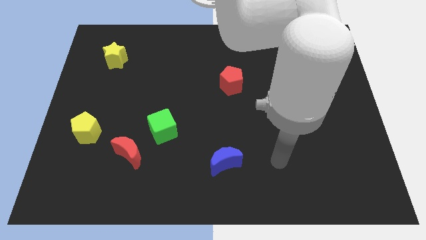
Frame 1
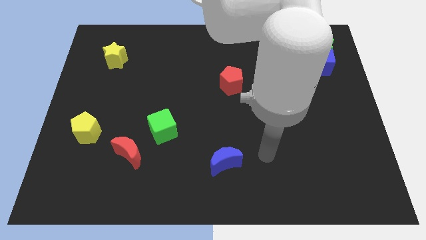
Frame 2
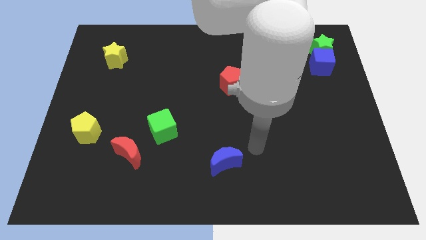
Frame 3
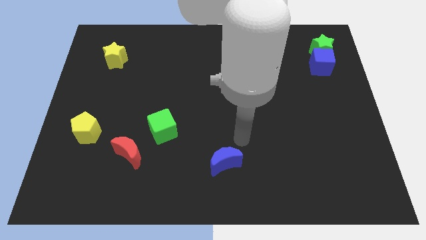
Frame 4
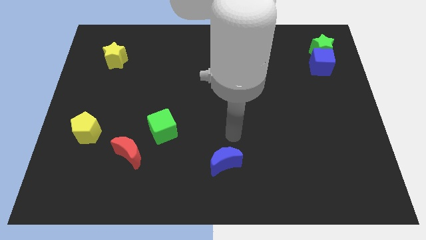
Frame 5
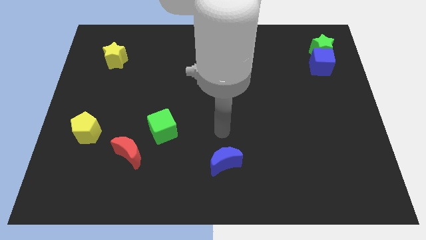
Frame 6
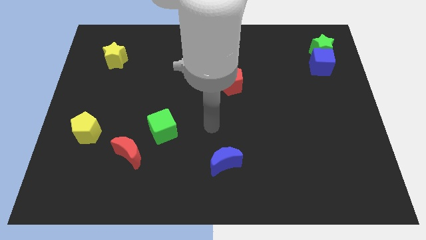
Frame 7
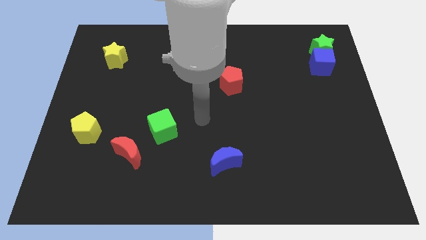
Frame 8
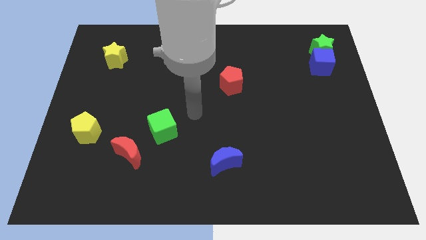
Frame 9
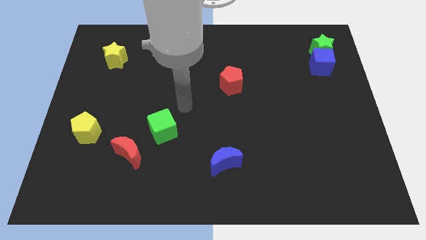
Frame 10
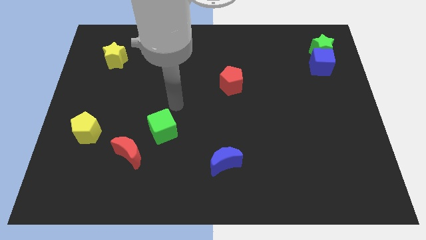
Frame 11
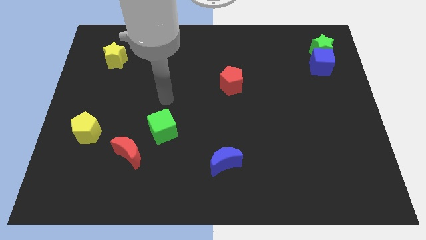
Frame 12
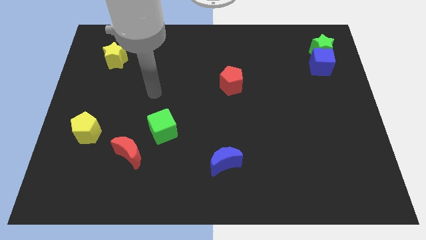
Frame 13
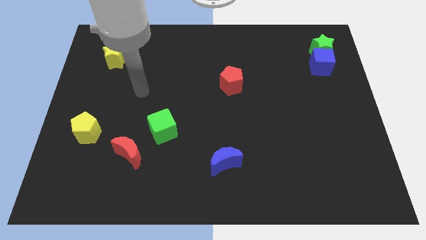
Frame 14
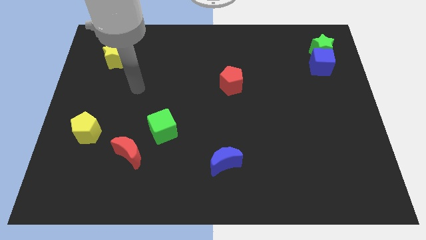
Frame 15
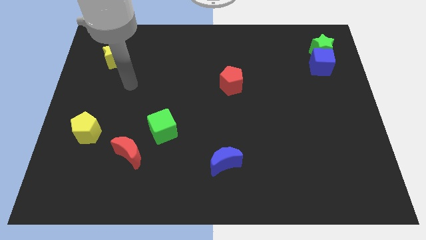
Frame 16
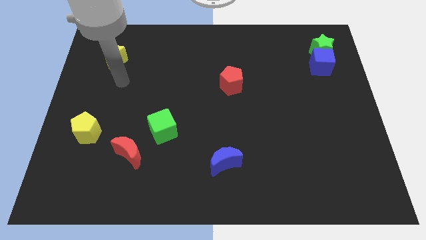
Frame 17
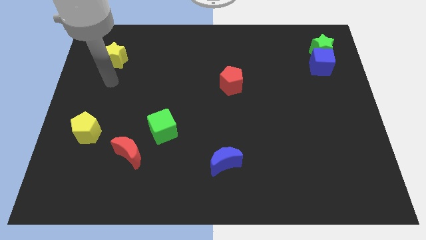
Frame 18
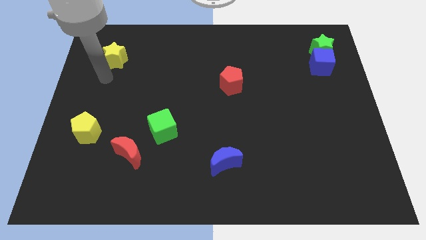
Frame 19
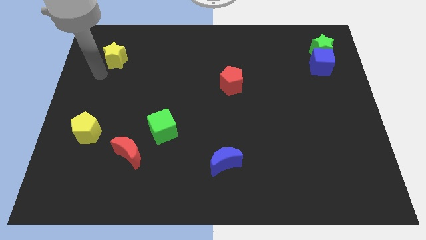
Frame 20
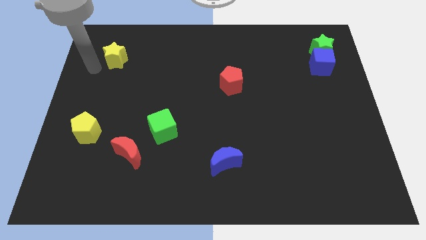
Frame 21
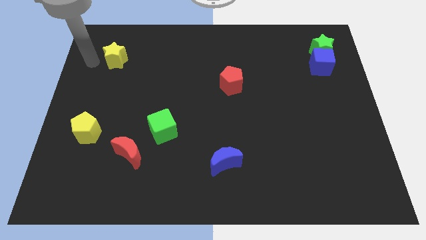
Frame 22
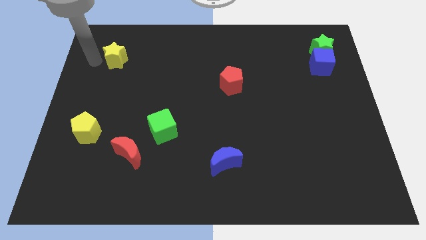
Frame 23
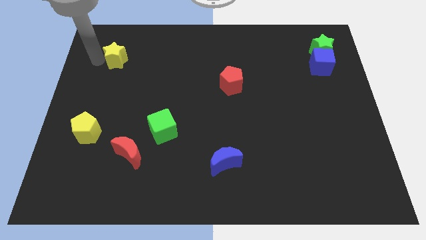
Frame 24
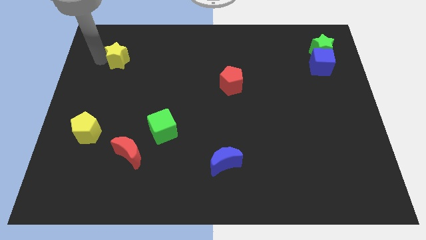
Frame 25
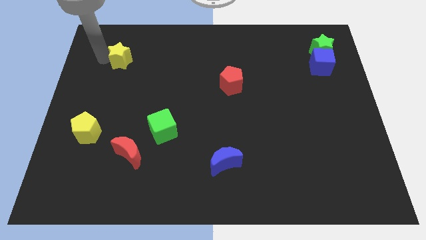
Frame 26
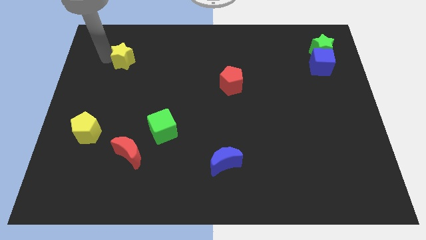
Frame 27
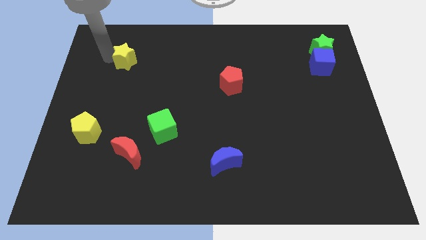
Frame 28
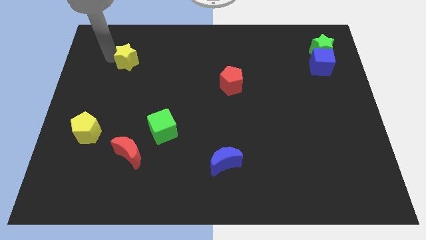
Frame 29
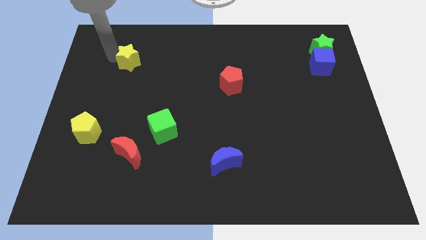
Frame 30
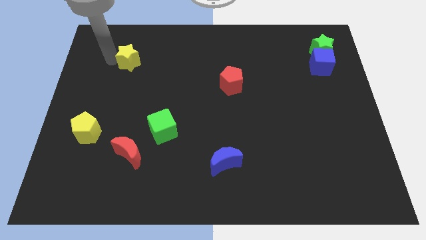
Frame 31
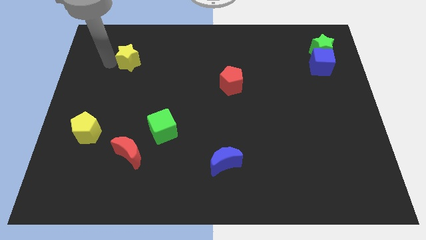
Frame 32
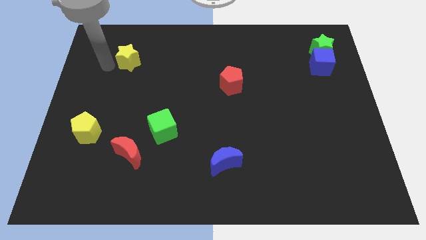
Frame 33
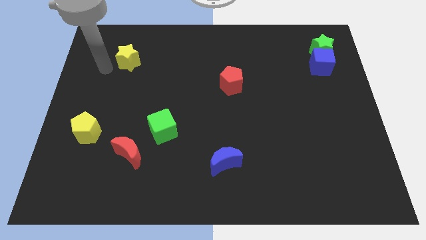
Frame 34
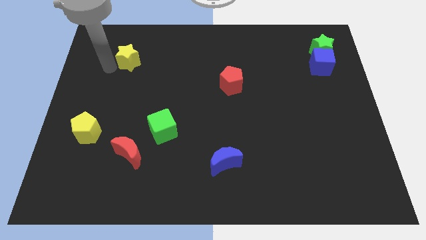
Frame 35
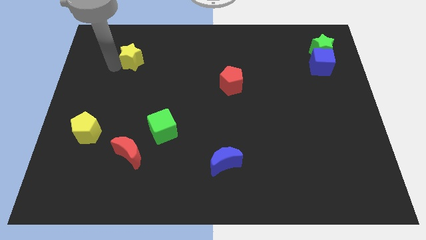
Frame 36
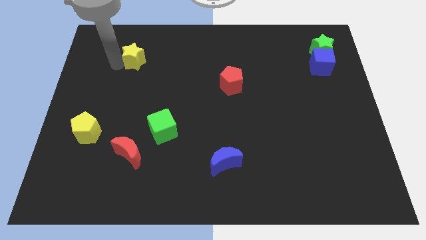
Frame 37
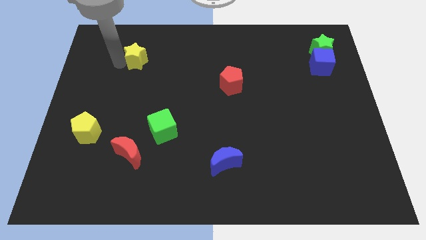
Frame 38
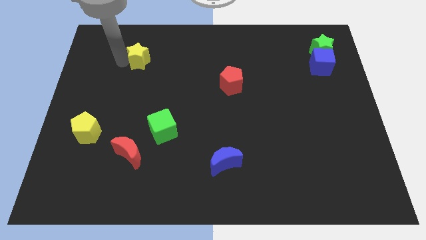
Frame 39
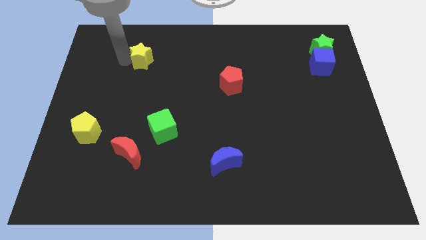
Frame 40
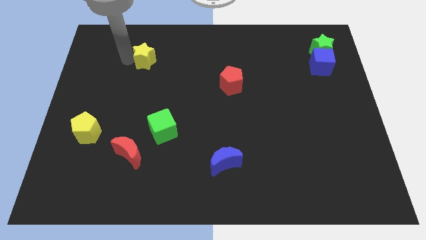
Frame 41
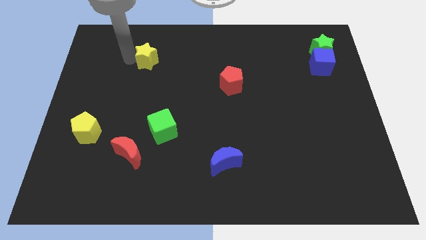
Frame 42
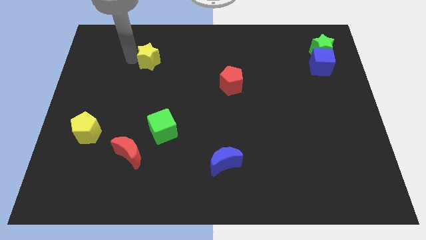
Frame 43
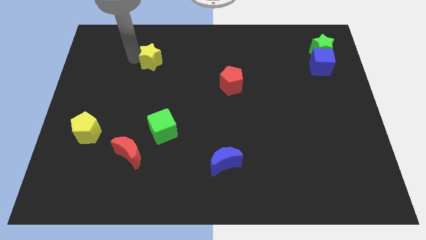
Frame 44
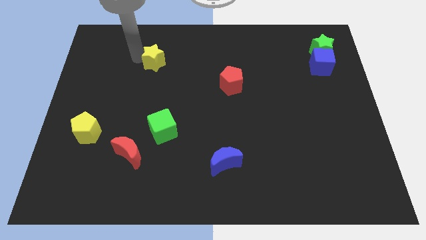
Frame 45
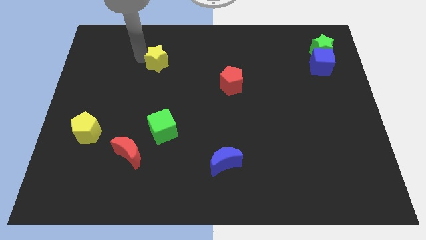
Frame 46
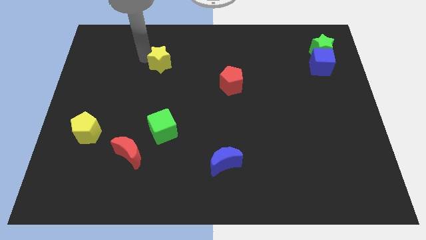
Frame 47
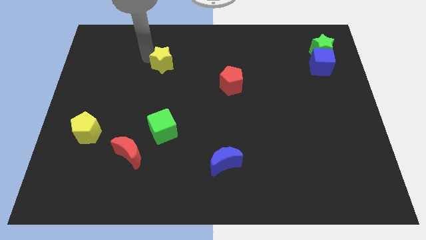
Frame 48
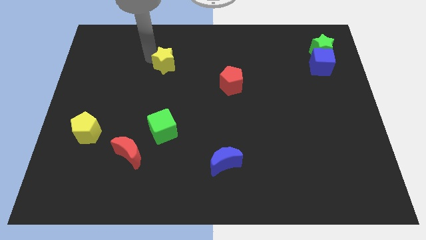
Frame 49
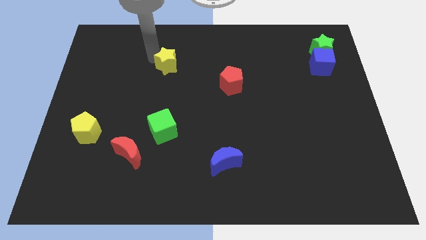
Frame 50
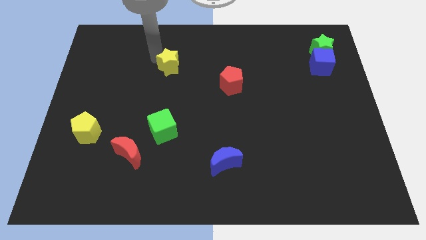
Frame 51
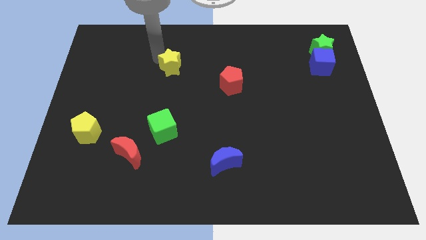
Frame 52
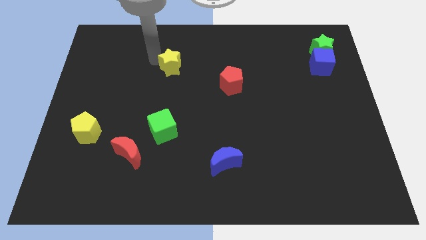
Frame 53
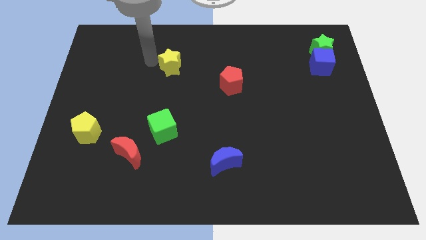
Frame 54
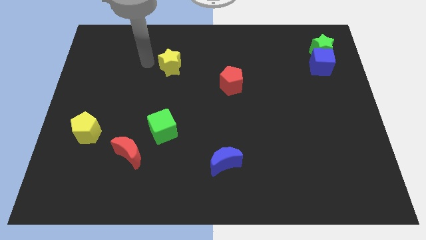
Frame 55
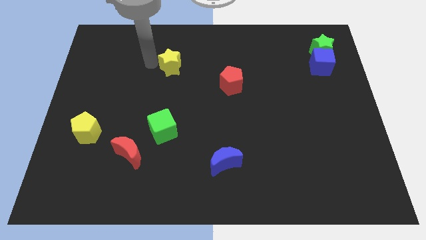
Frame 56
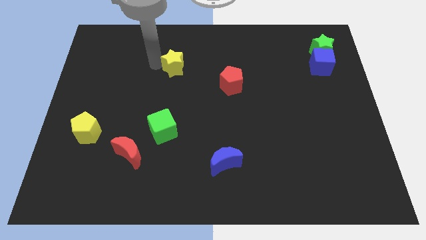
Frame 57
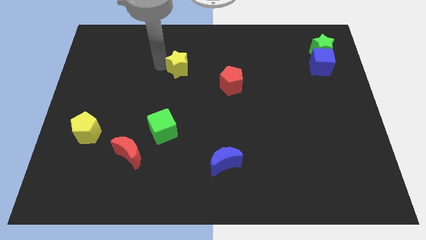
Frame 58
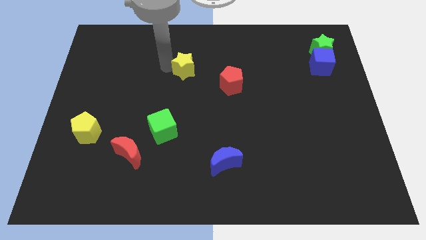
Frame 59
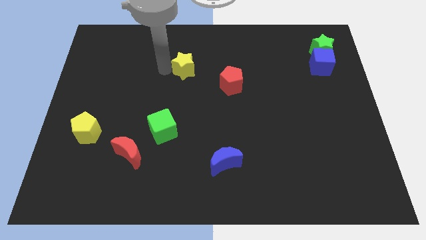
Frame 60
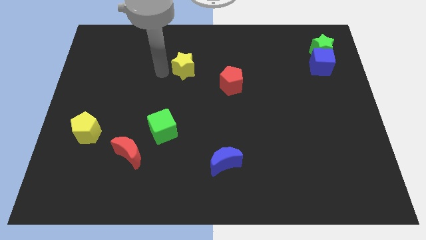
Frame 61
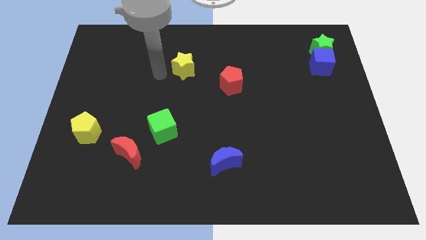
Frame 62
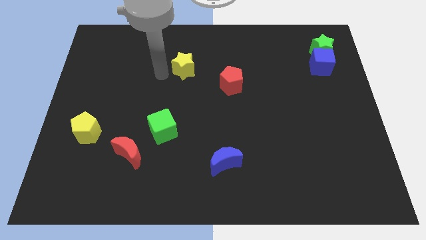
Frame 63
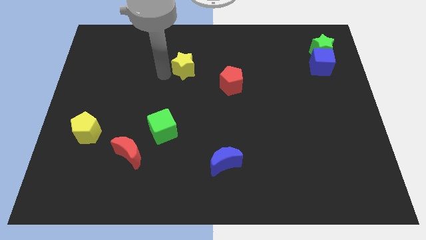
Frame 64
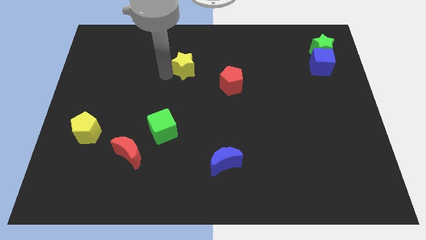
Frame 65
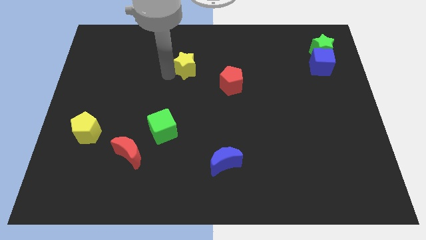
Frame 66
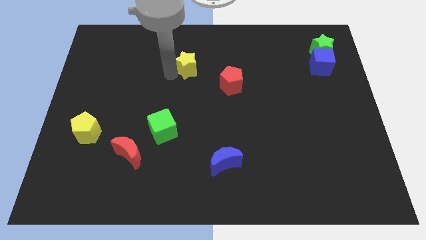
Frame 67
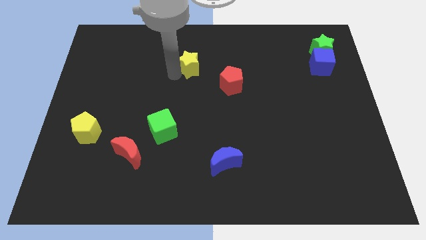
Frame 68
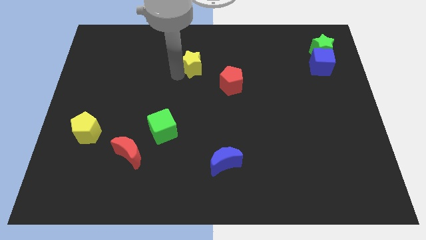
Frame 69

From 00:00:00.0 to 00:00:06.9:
push the yellow star to the right

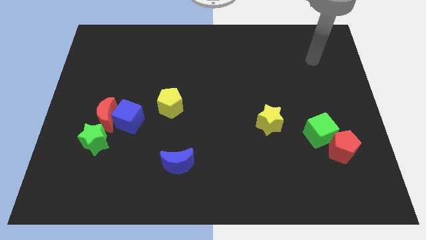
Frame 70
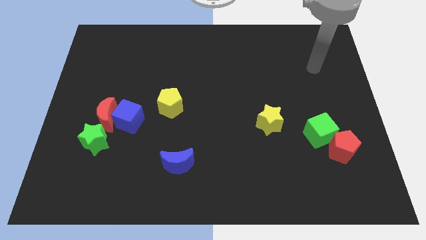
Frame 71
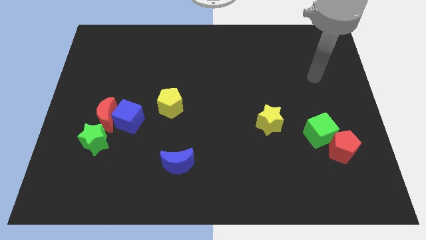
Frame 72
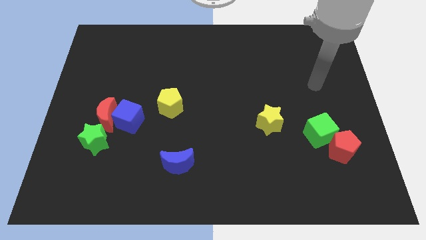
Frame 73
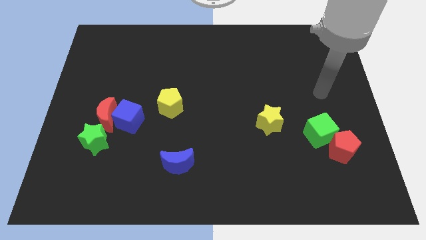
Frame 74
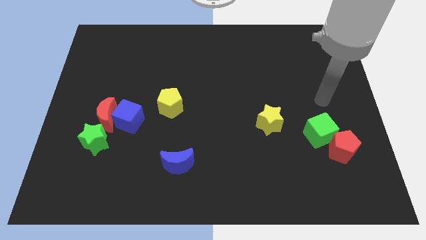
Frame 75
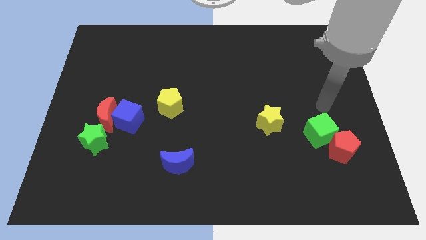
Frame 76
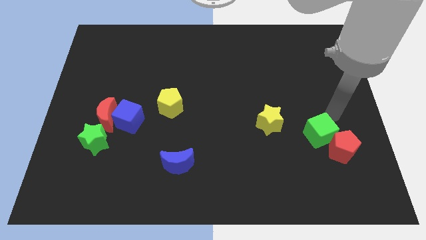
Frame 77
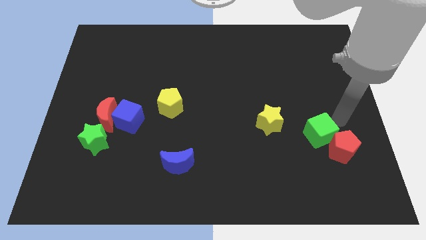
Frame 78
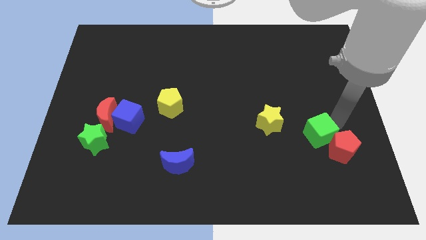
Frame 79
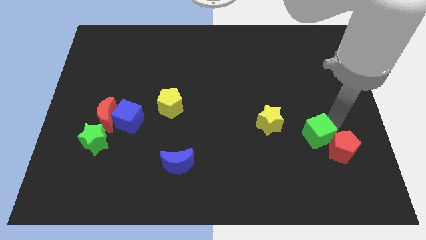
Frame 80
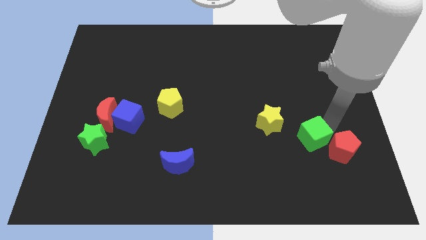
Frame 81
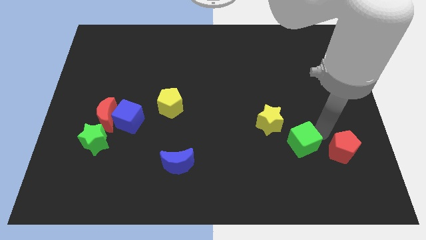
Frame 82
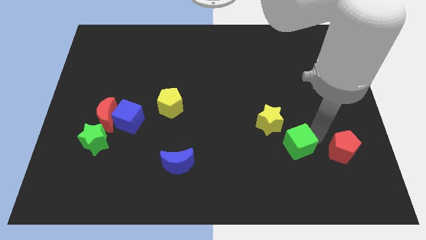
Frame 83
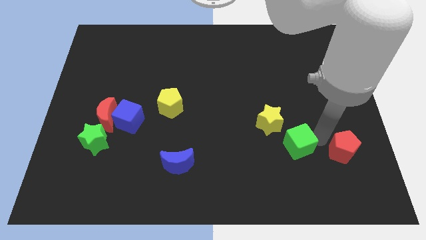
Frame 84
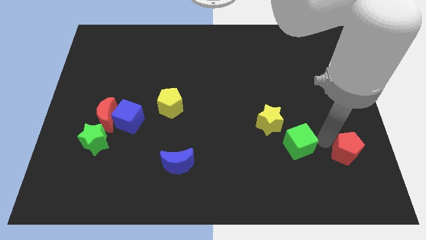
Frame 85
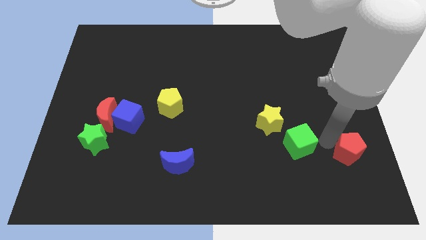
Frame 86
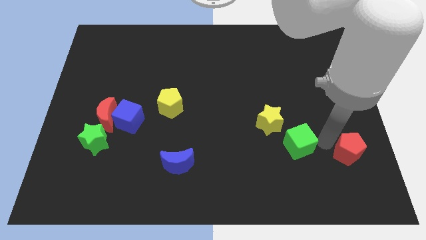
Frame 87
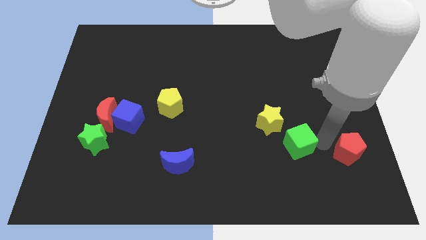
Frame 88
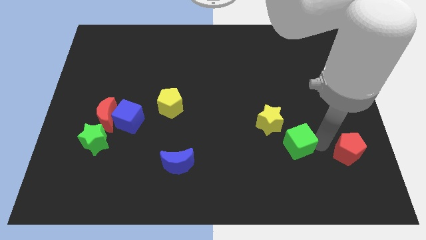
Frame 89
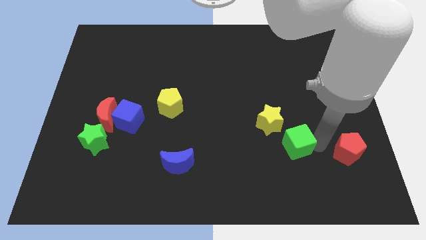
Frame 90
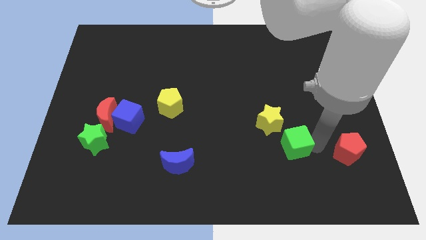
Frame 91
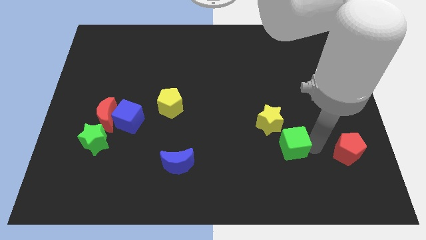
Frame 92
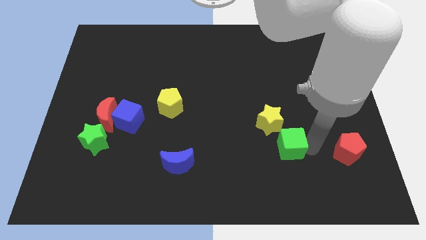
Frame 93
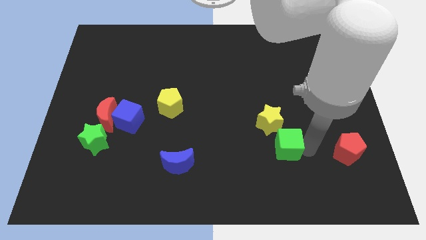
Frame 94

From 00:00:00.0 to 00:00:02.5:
move the green cube left a bit
